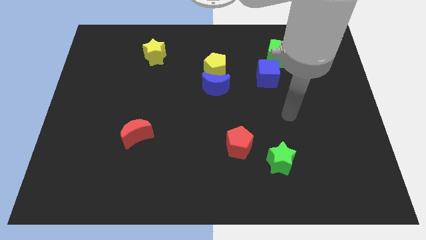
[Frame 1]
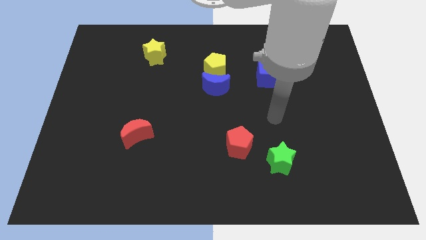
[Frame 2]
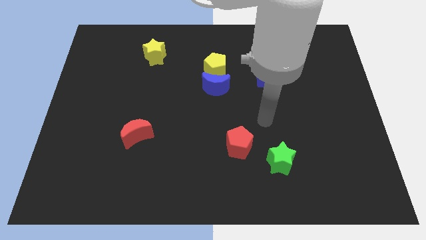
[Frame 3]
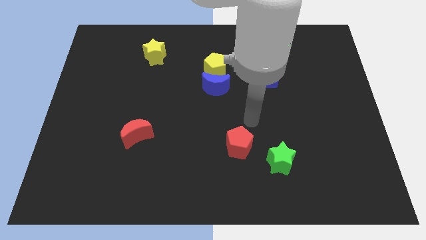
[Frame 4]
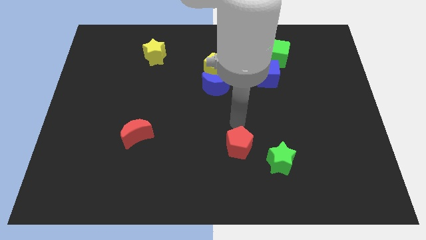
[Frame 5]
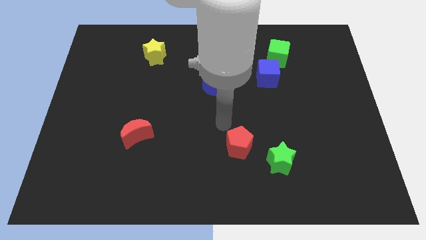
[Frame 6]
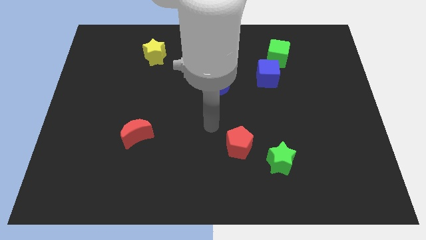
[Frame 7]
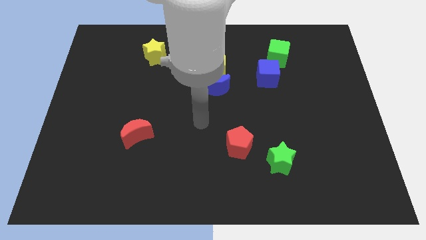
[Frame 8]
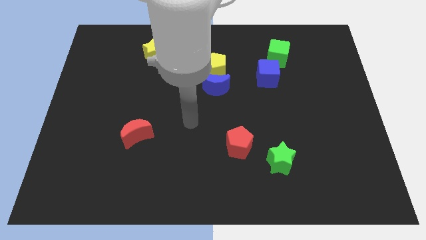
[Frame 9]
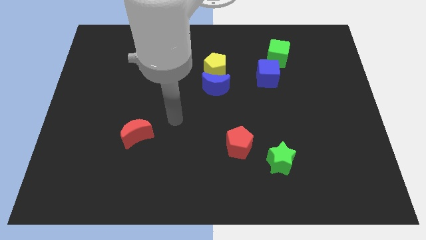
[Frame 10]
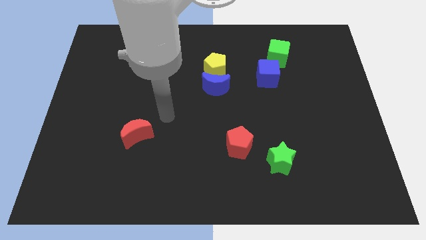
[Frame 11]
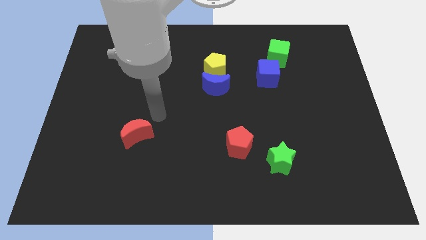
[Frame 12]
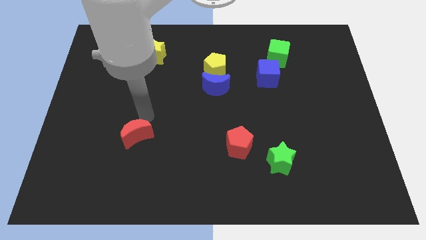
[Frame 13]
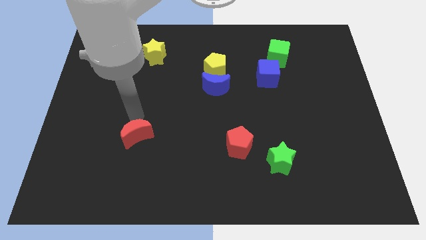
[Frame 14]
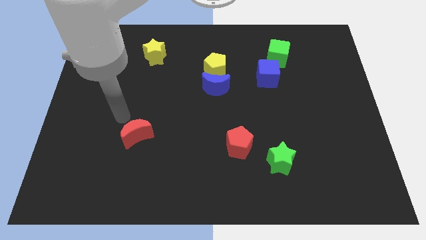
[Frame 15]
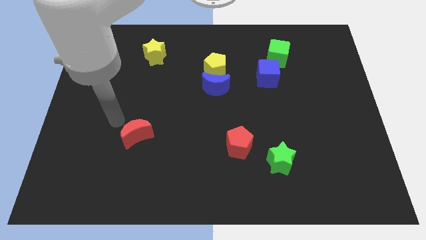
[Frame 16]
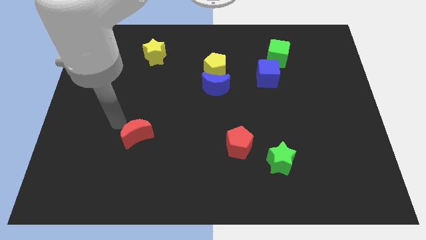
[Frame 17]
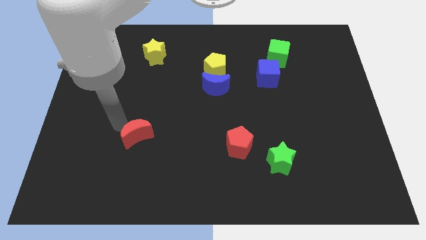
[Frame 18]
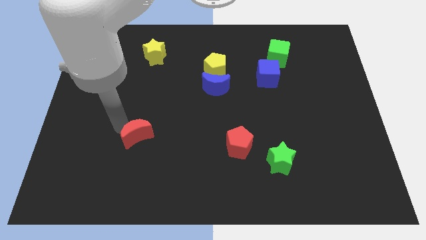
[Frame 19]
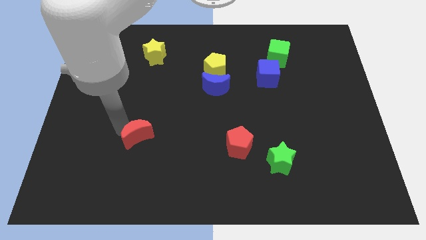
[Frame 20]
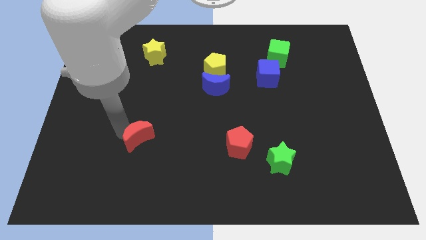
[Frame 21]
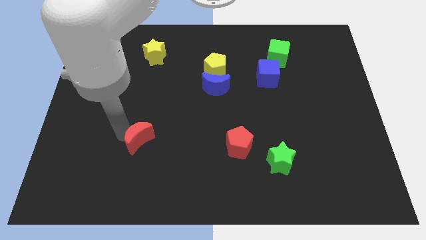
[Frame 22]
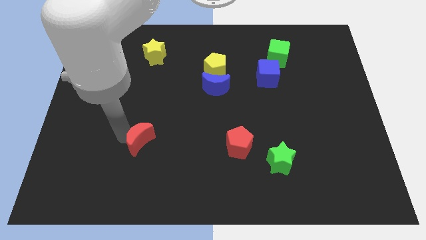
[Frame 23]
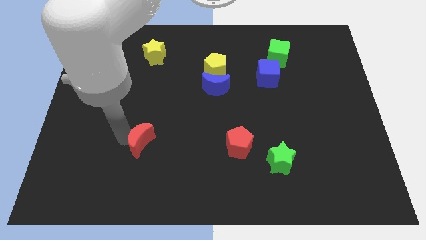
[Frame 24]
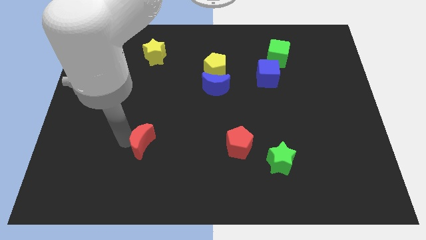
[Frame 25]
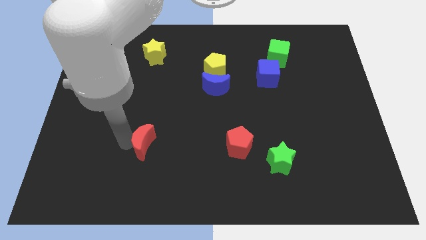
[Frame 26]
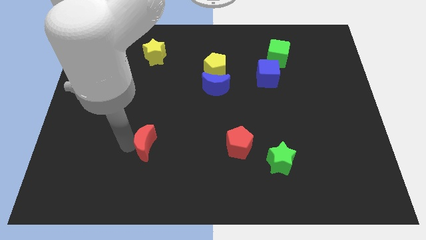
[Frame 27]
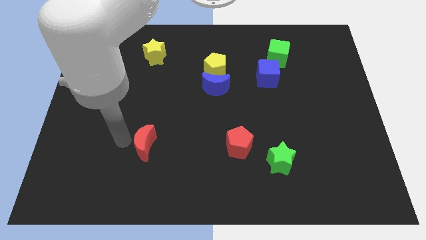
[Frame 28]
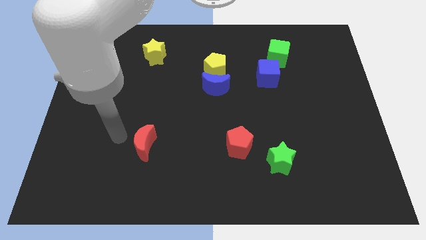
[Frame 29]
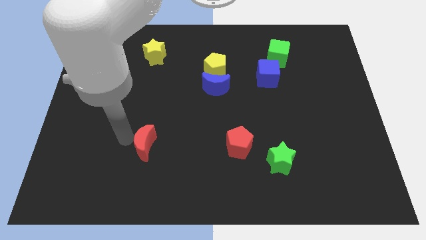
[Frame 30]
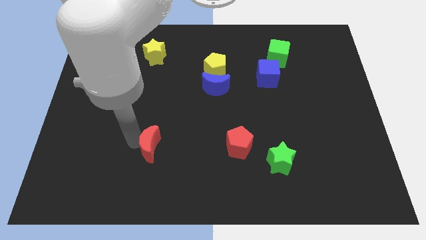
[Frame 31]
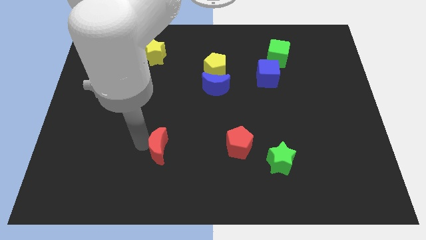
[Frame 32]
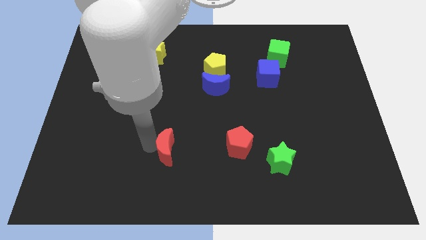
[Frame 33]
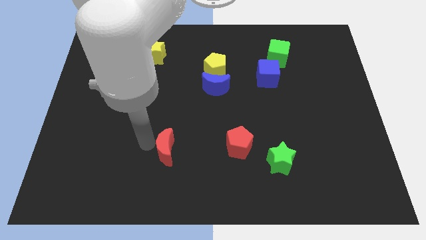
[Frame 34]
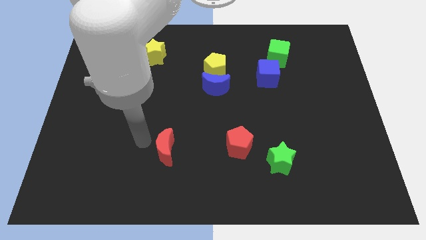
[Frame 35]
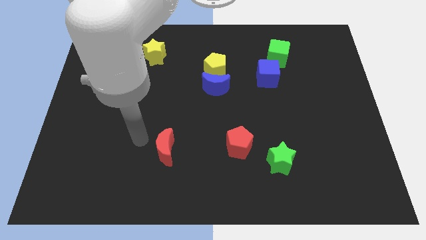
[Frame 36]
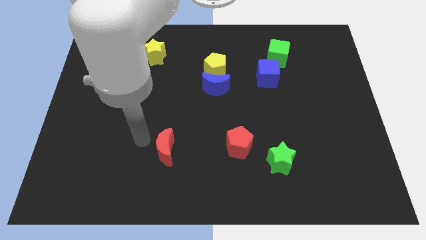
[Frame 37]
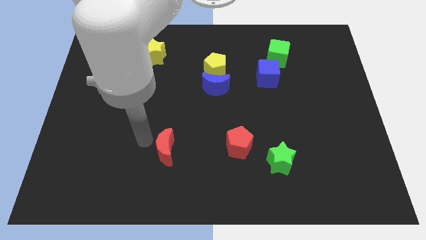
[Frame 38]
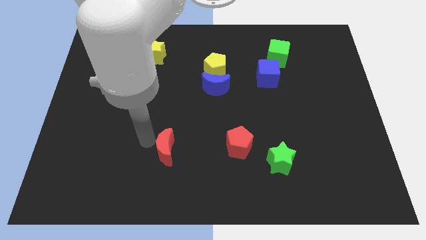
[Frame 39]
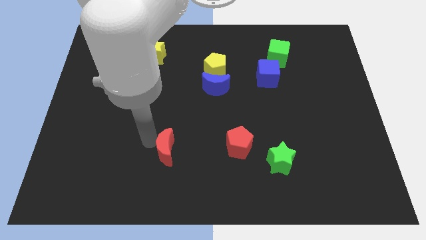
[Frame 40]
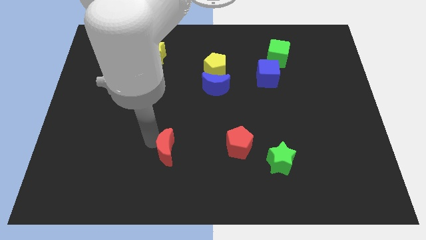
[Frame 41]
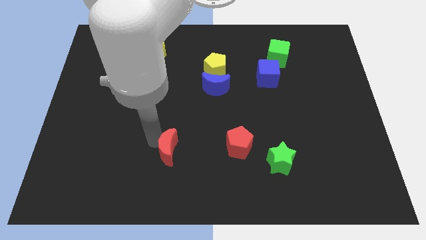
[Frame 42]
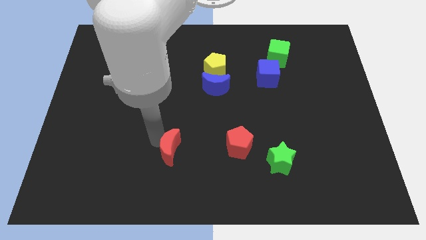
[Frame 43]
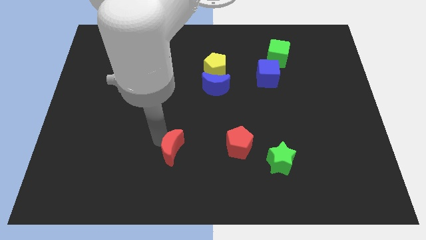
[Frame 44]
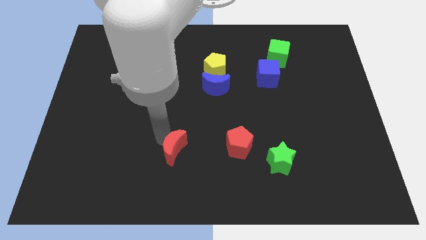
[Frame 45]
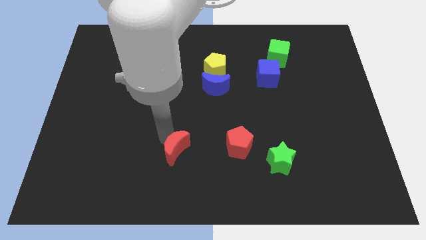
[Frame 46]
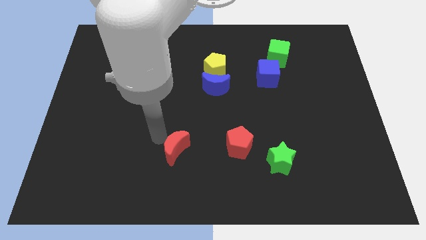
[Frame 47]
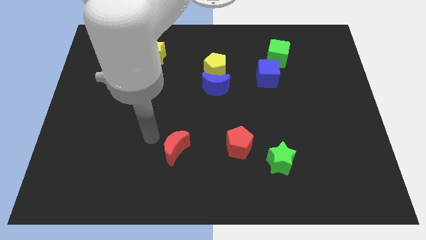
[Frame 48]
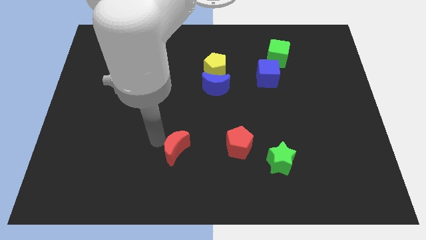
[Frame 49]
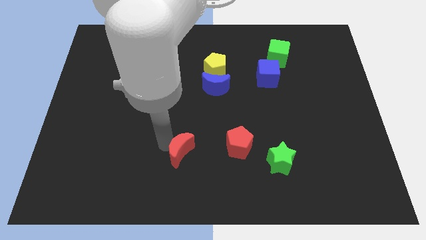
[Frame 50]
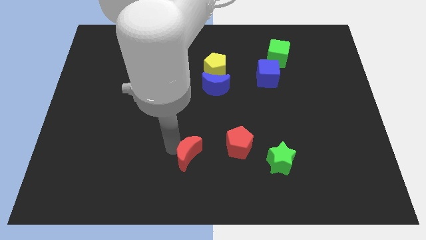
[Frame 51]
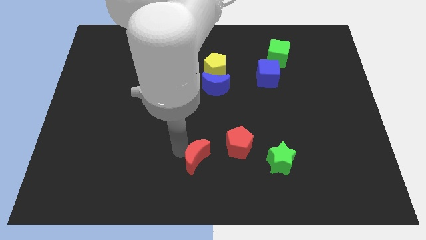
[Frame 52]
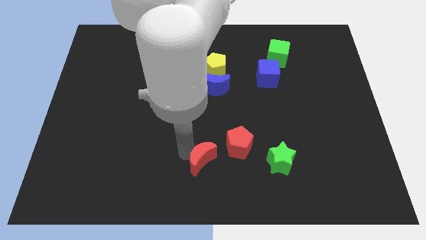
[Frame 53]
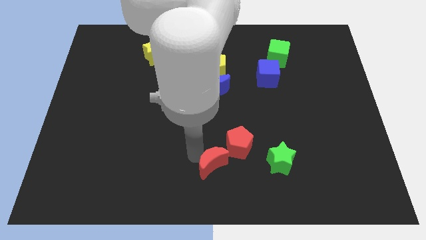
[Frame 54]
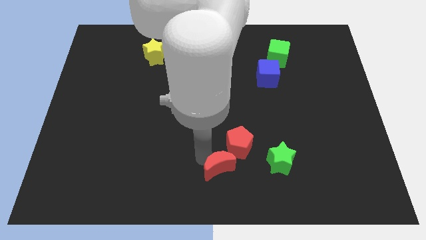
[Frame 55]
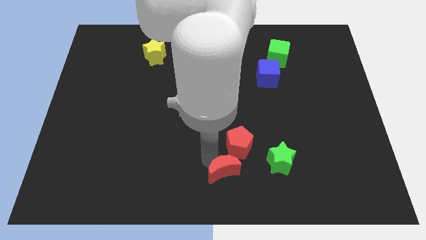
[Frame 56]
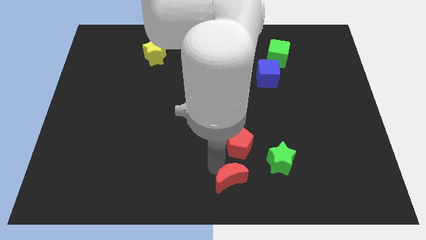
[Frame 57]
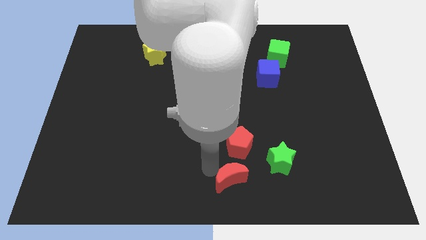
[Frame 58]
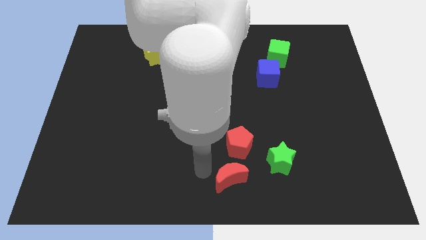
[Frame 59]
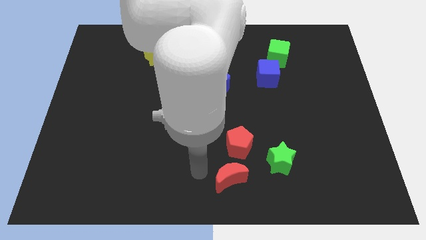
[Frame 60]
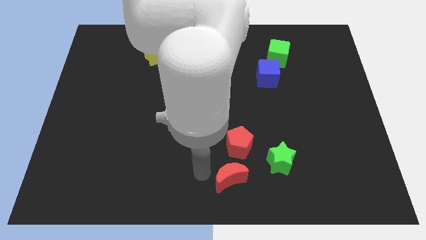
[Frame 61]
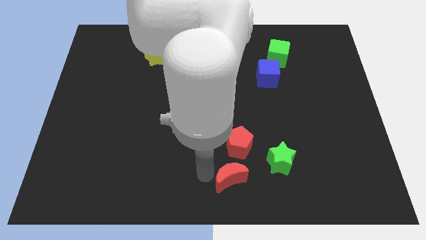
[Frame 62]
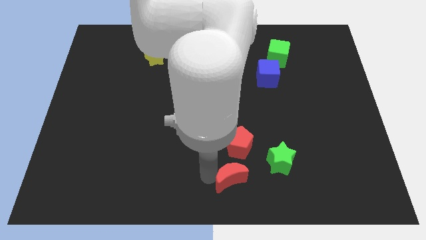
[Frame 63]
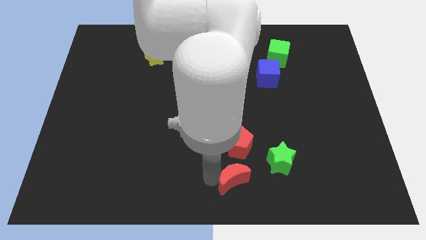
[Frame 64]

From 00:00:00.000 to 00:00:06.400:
slide the red moon to the bottom left of the green star
